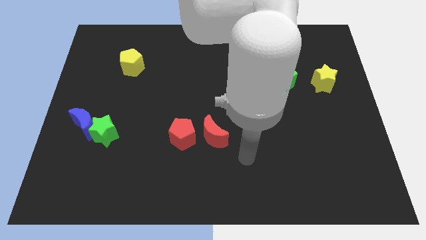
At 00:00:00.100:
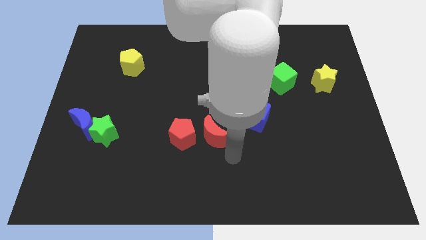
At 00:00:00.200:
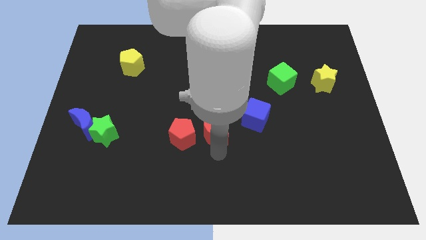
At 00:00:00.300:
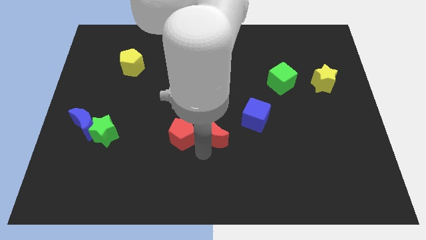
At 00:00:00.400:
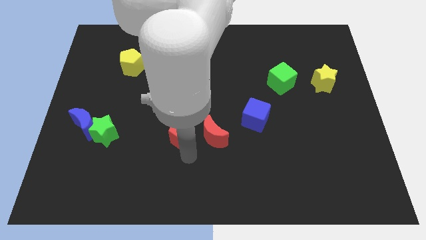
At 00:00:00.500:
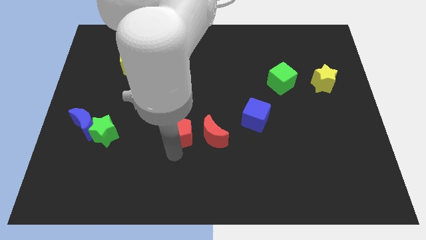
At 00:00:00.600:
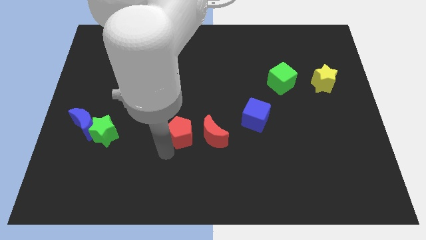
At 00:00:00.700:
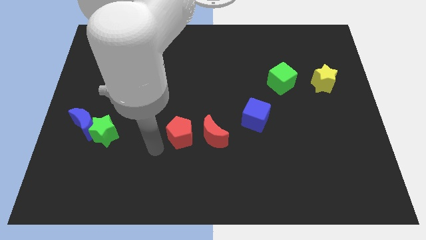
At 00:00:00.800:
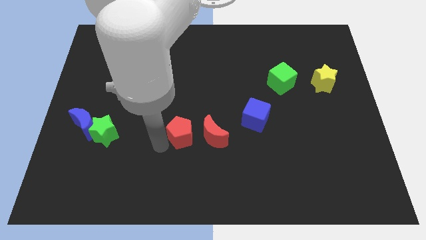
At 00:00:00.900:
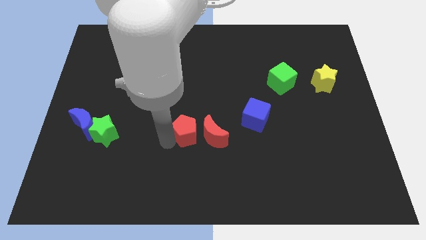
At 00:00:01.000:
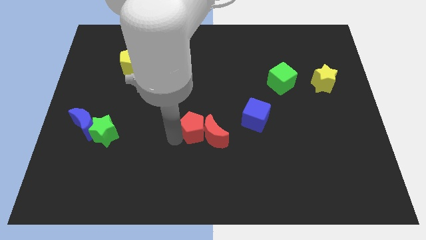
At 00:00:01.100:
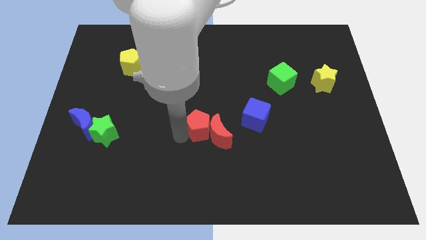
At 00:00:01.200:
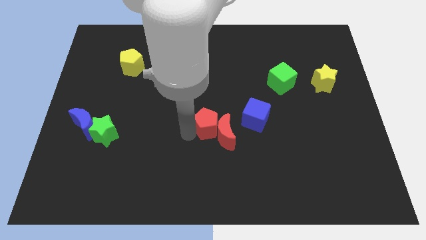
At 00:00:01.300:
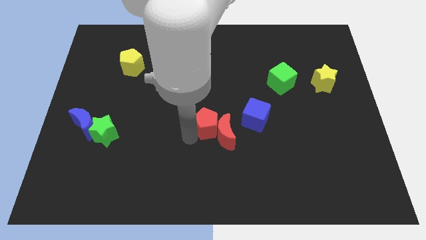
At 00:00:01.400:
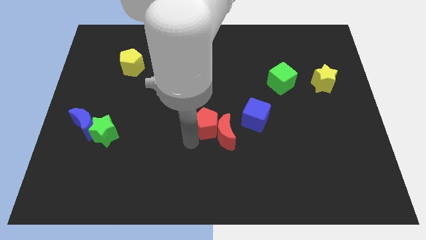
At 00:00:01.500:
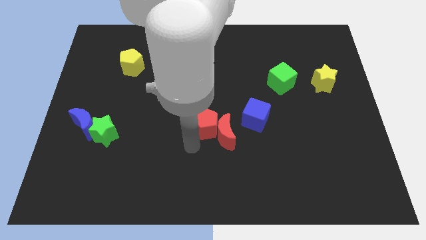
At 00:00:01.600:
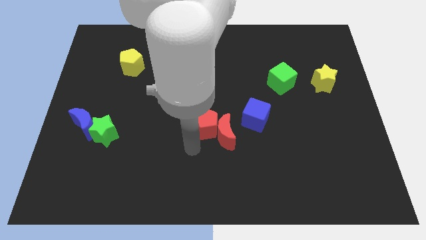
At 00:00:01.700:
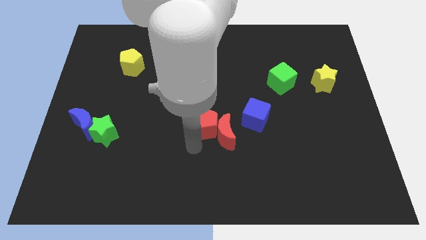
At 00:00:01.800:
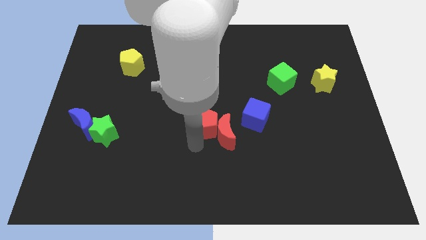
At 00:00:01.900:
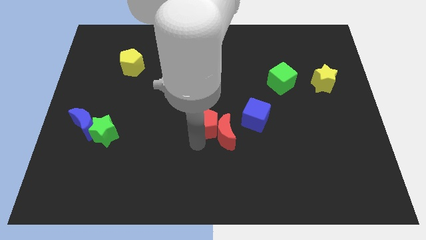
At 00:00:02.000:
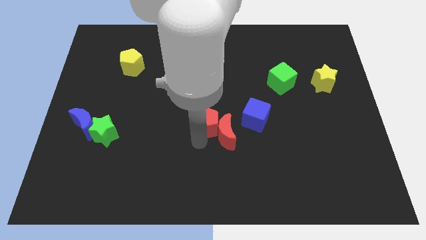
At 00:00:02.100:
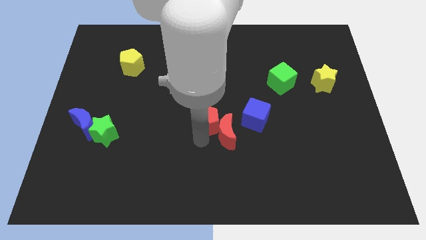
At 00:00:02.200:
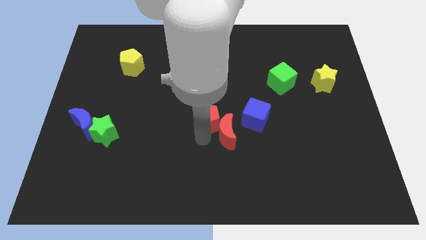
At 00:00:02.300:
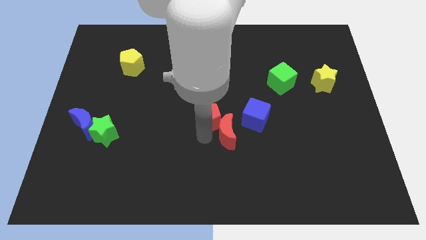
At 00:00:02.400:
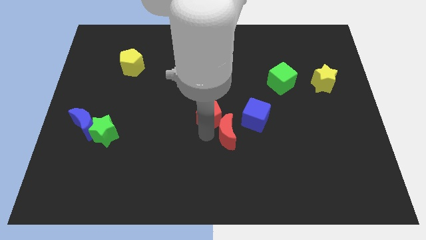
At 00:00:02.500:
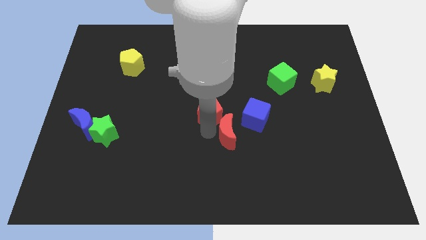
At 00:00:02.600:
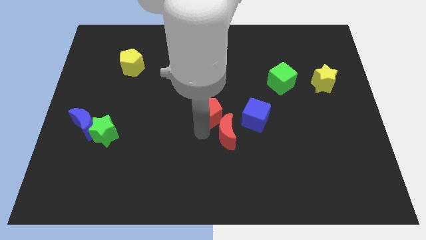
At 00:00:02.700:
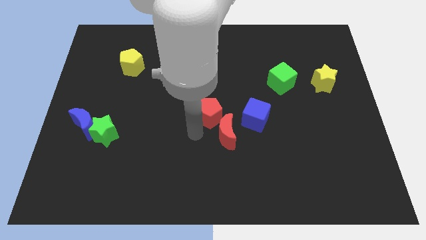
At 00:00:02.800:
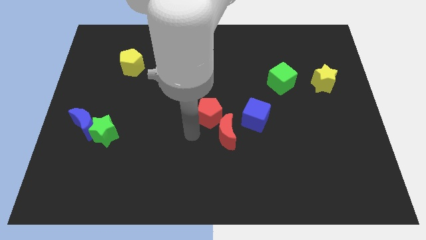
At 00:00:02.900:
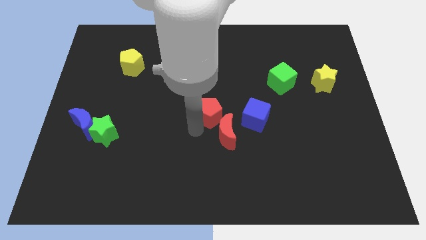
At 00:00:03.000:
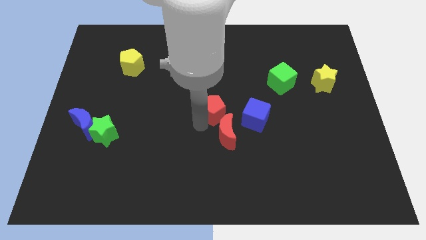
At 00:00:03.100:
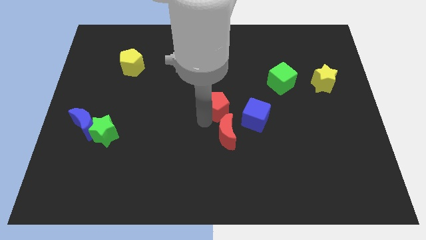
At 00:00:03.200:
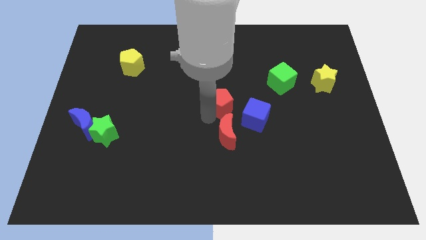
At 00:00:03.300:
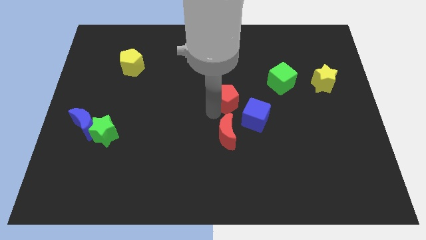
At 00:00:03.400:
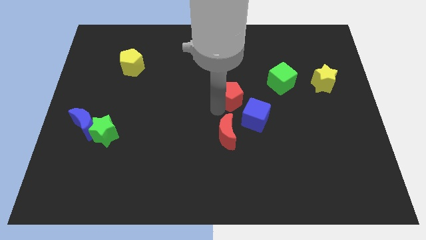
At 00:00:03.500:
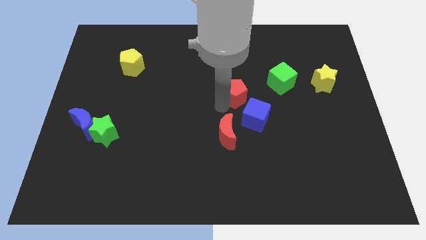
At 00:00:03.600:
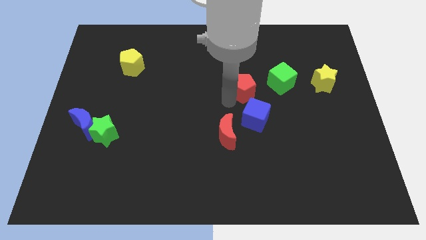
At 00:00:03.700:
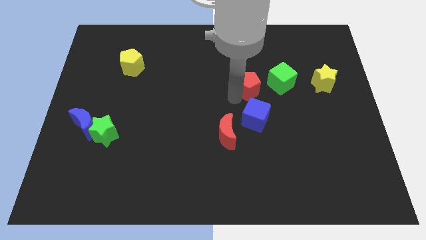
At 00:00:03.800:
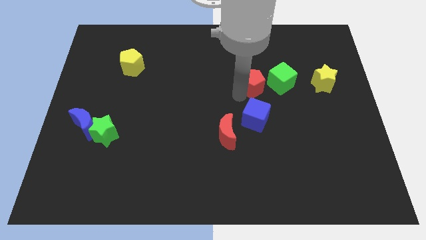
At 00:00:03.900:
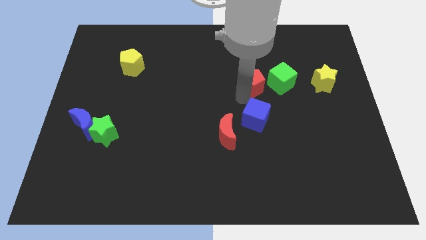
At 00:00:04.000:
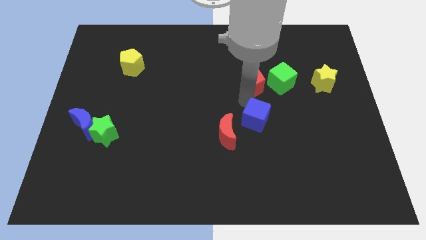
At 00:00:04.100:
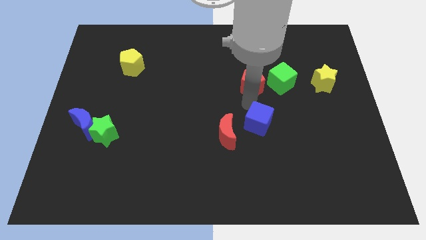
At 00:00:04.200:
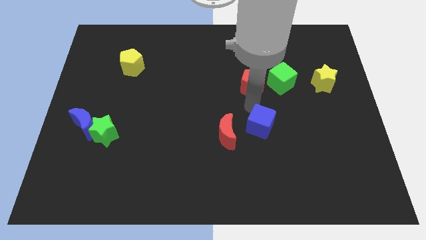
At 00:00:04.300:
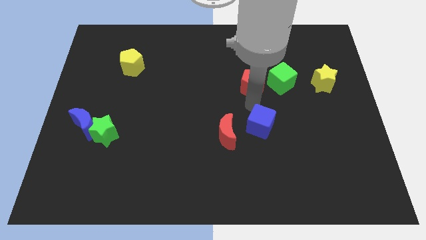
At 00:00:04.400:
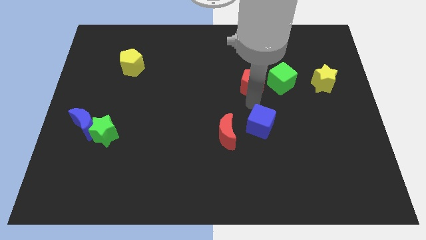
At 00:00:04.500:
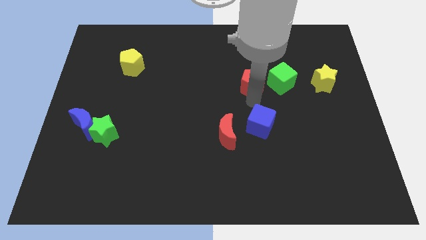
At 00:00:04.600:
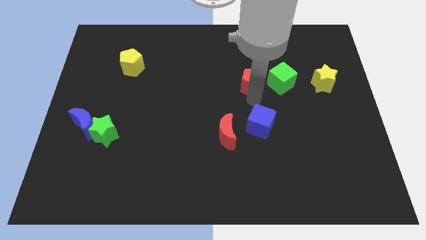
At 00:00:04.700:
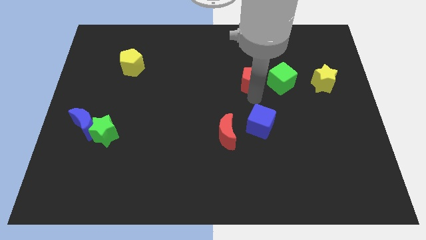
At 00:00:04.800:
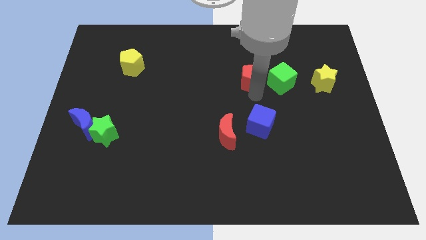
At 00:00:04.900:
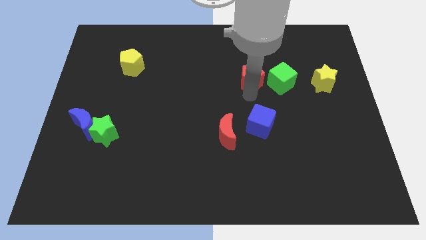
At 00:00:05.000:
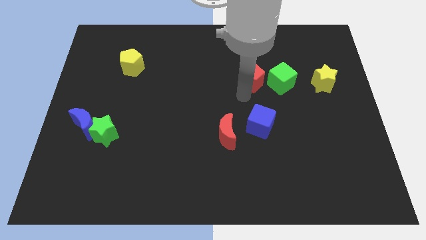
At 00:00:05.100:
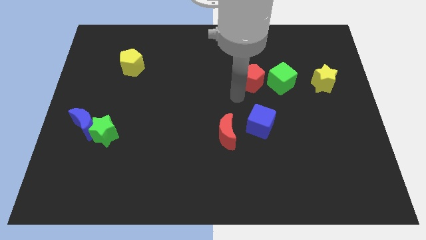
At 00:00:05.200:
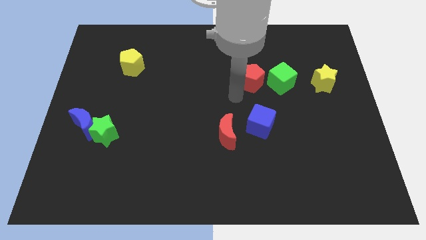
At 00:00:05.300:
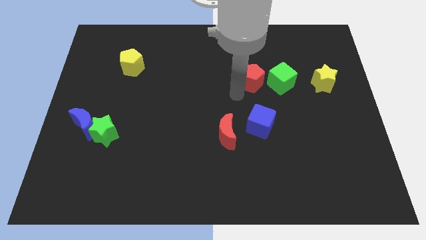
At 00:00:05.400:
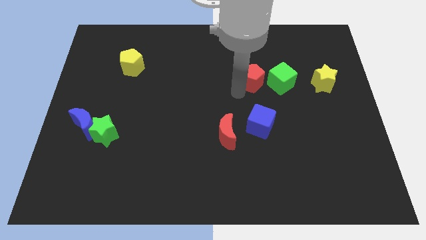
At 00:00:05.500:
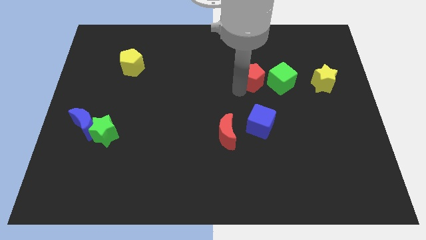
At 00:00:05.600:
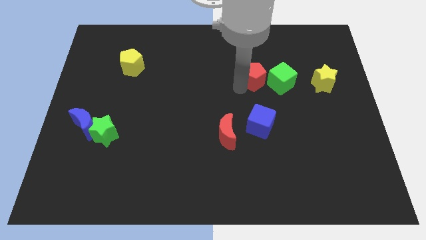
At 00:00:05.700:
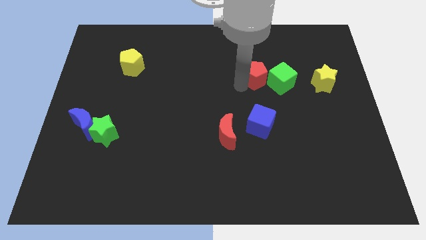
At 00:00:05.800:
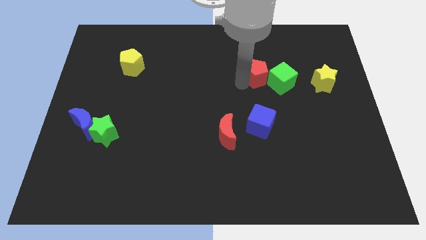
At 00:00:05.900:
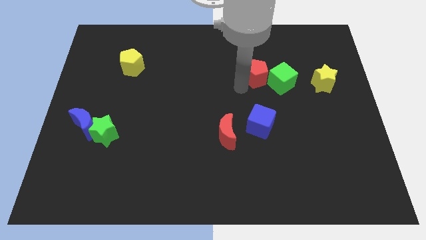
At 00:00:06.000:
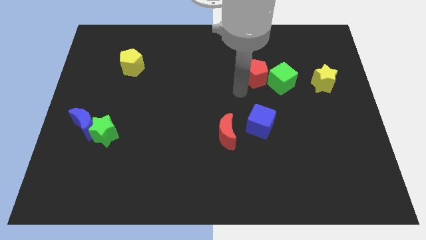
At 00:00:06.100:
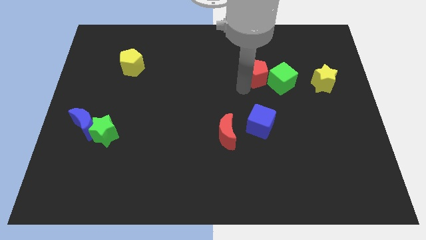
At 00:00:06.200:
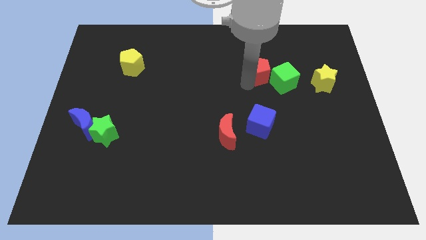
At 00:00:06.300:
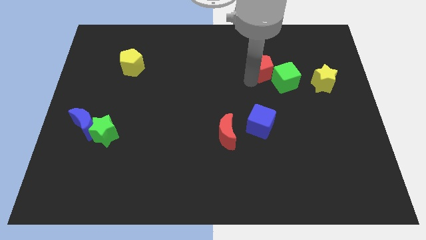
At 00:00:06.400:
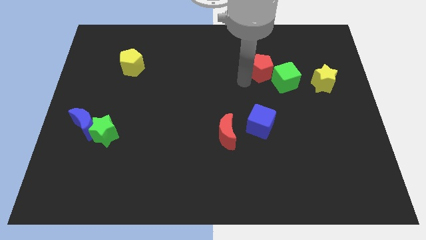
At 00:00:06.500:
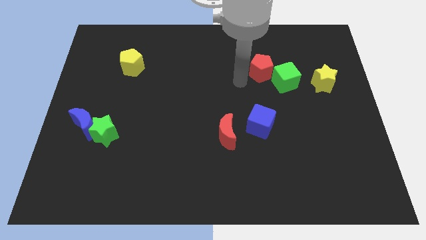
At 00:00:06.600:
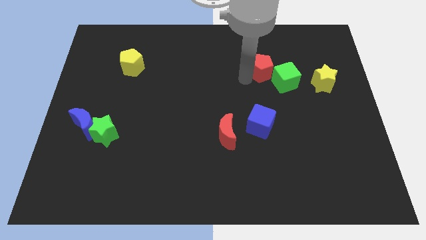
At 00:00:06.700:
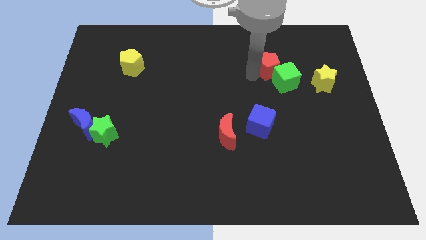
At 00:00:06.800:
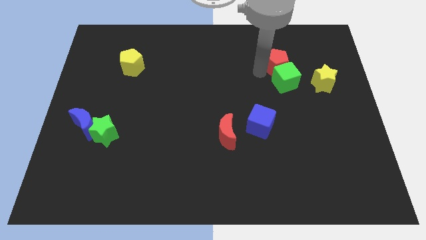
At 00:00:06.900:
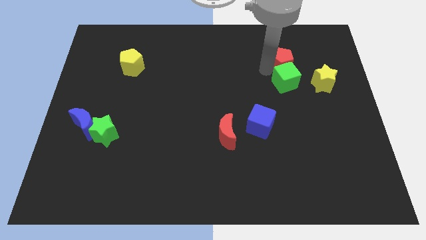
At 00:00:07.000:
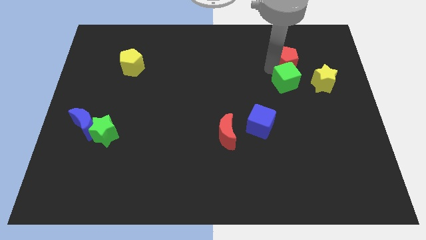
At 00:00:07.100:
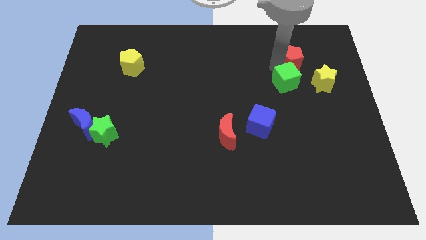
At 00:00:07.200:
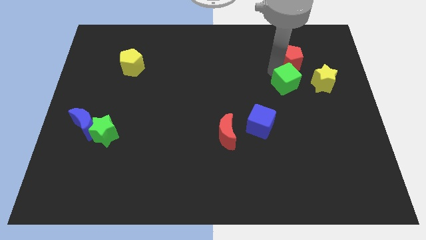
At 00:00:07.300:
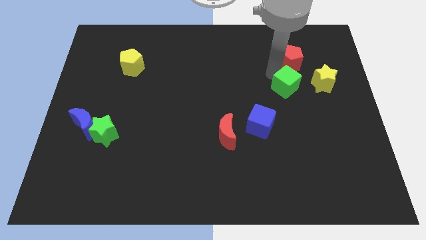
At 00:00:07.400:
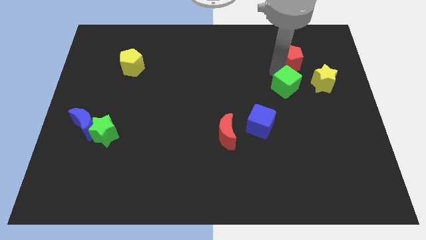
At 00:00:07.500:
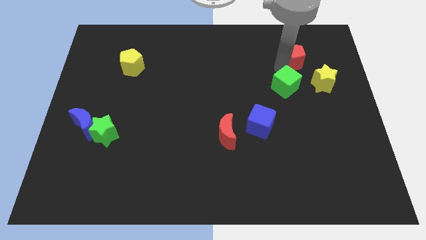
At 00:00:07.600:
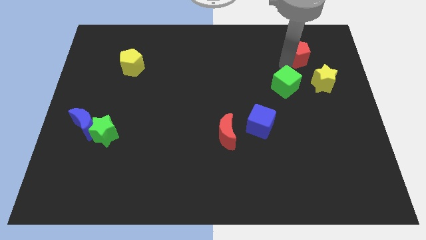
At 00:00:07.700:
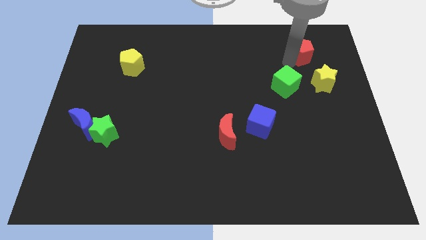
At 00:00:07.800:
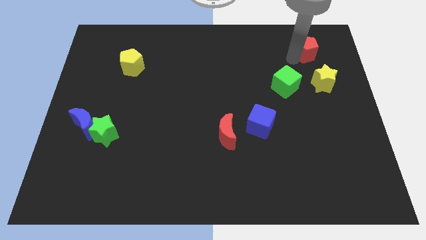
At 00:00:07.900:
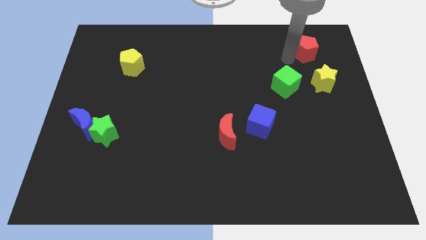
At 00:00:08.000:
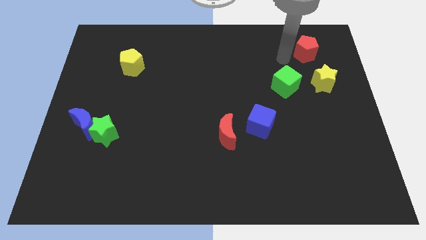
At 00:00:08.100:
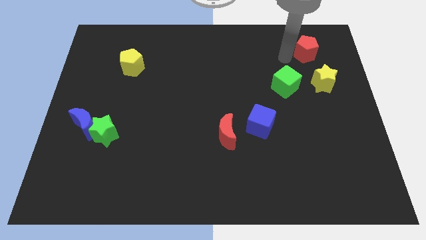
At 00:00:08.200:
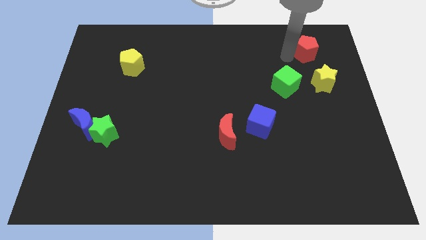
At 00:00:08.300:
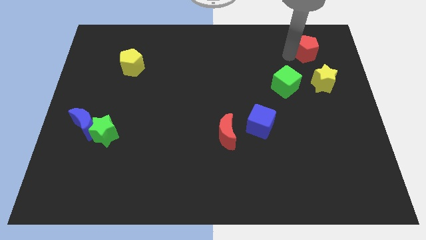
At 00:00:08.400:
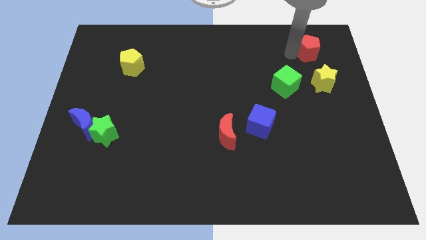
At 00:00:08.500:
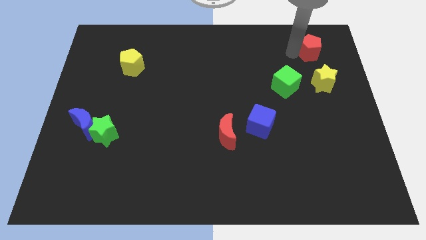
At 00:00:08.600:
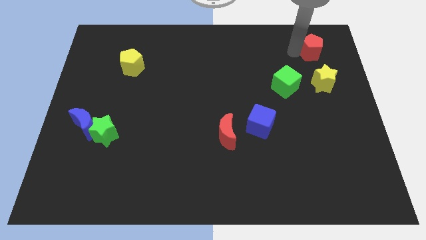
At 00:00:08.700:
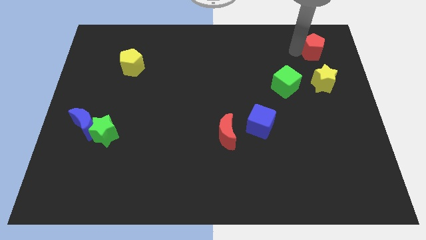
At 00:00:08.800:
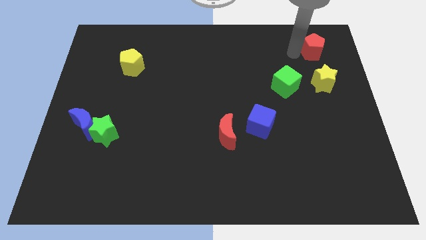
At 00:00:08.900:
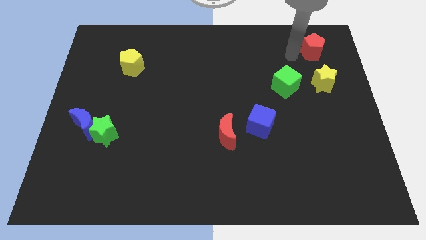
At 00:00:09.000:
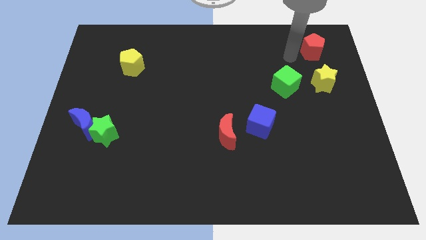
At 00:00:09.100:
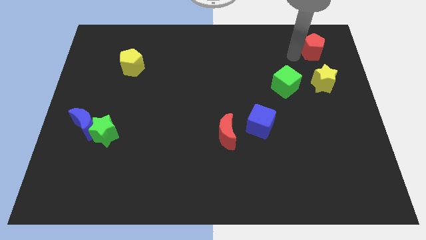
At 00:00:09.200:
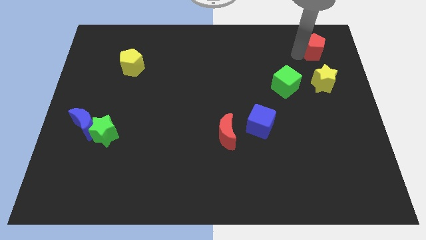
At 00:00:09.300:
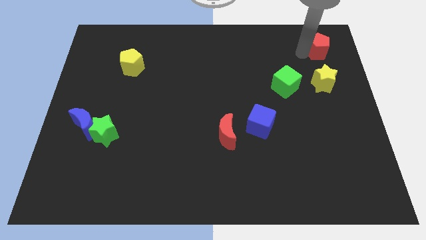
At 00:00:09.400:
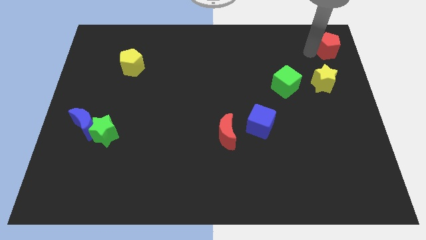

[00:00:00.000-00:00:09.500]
push the red pentagon to the top right
